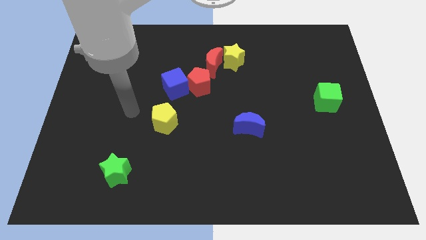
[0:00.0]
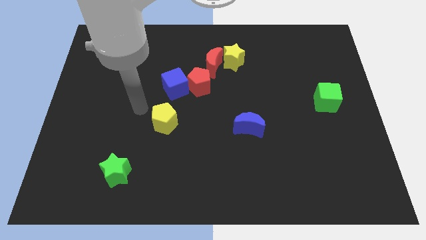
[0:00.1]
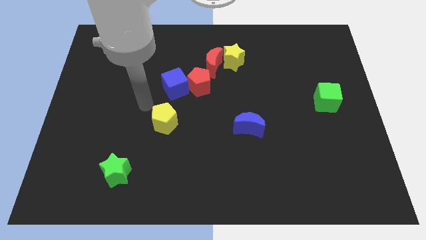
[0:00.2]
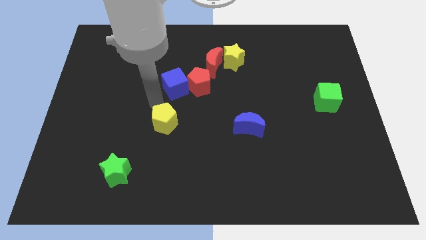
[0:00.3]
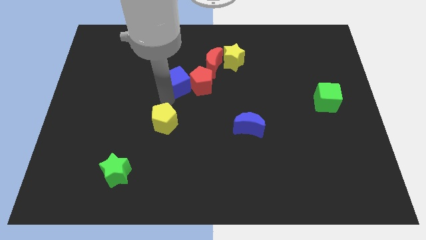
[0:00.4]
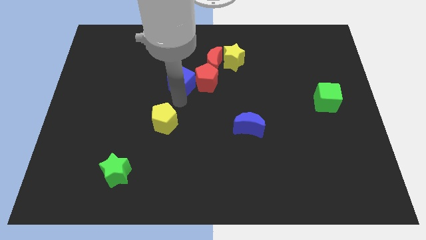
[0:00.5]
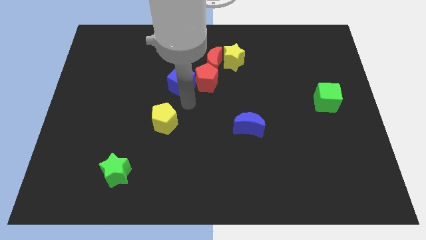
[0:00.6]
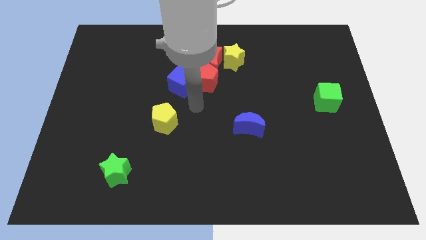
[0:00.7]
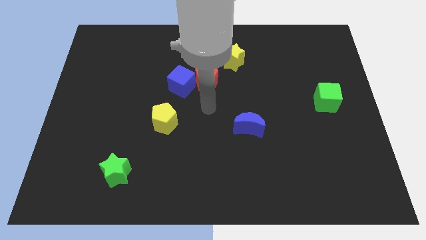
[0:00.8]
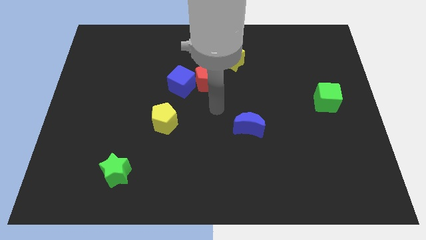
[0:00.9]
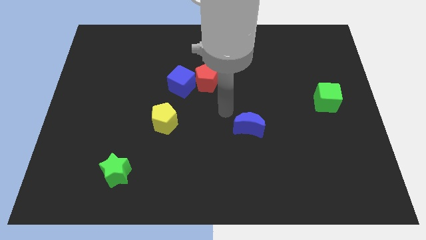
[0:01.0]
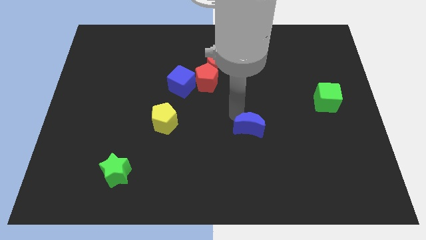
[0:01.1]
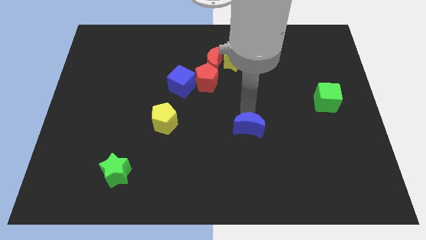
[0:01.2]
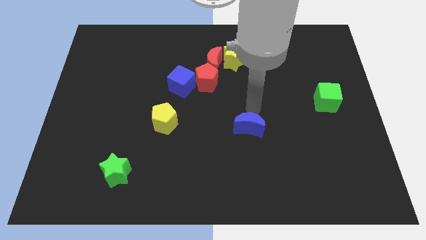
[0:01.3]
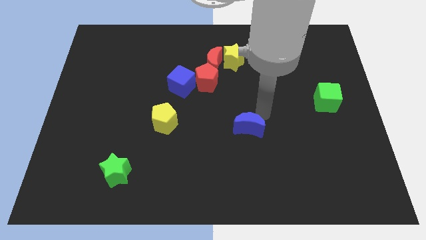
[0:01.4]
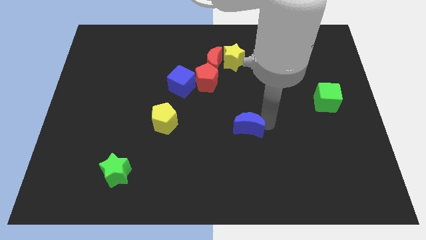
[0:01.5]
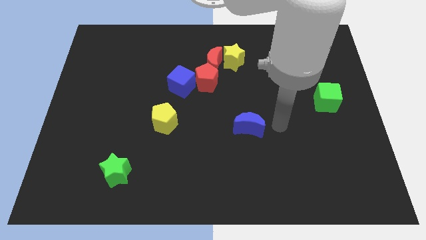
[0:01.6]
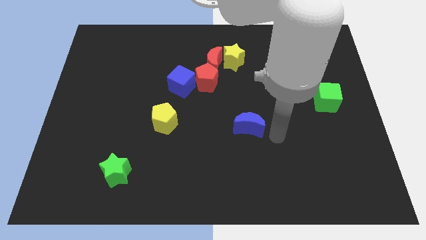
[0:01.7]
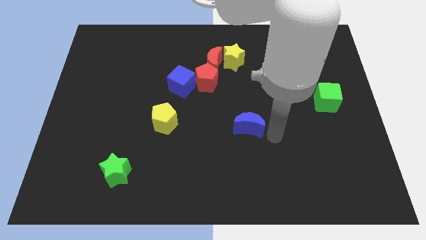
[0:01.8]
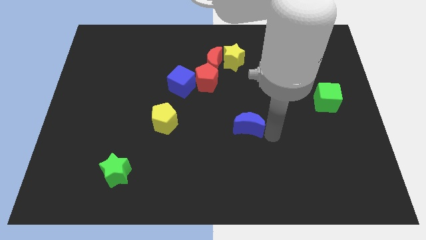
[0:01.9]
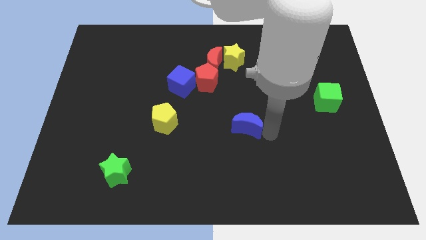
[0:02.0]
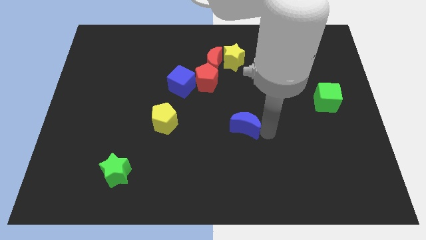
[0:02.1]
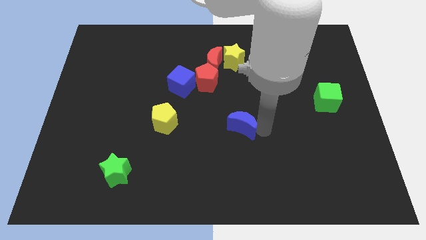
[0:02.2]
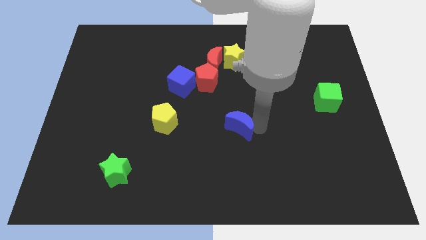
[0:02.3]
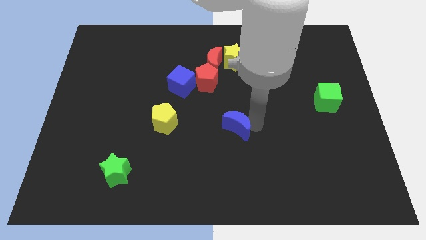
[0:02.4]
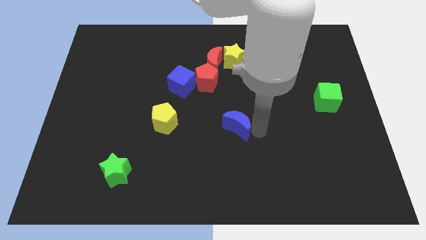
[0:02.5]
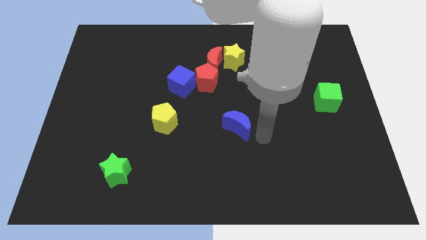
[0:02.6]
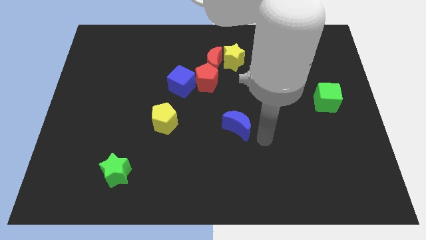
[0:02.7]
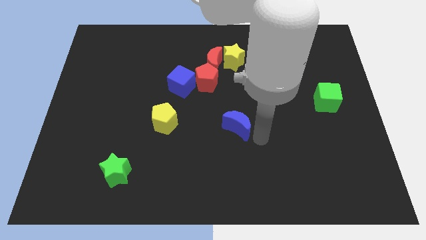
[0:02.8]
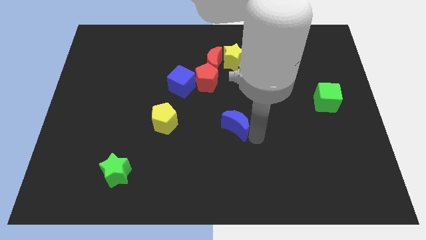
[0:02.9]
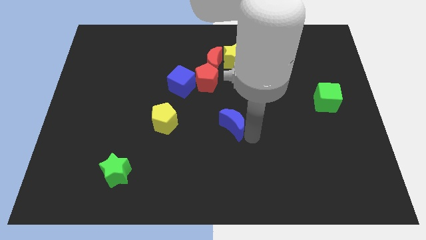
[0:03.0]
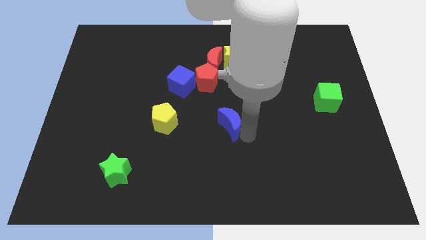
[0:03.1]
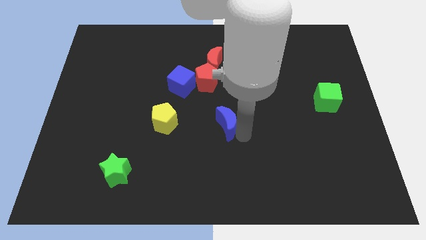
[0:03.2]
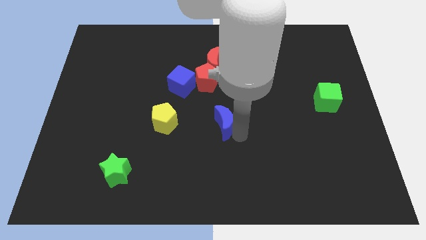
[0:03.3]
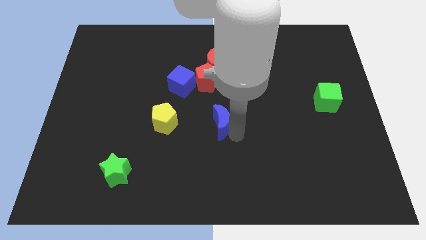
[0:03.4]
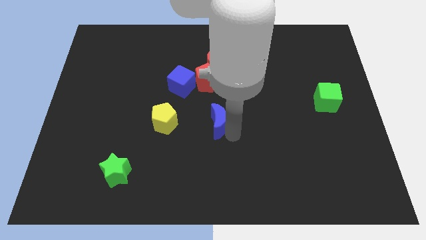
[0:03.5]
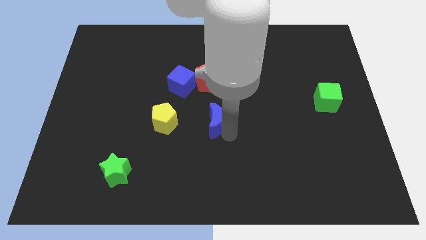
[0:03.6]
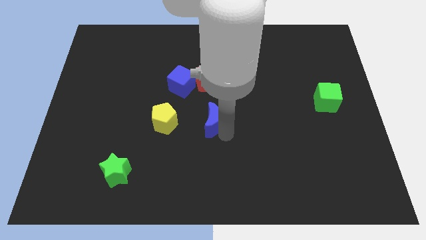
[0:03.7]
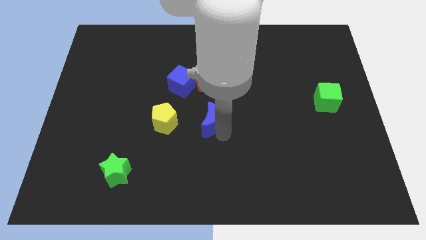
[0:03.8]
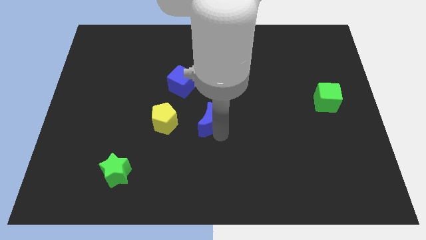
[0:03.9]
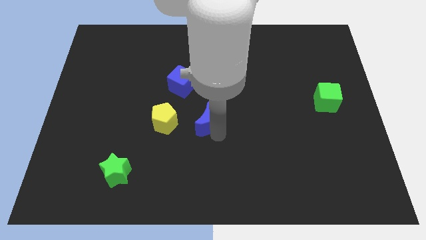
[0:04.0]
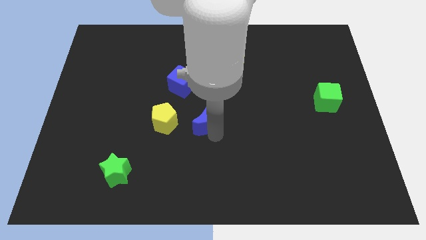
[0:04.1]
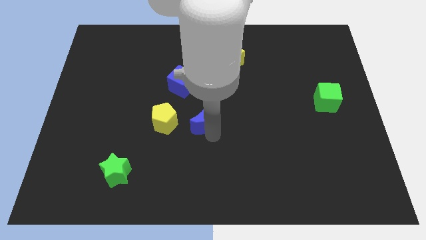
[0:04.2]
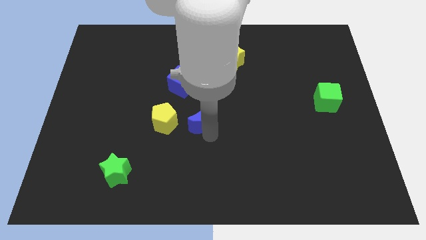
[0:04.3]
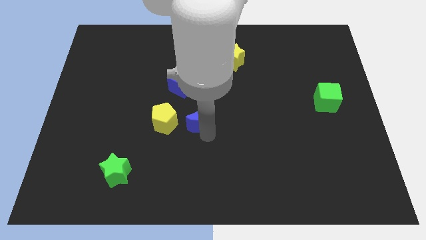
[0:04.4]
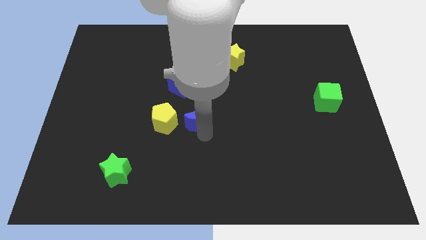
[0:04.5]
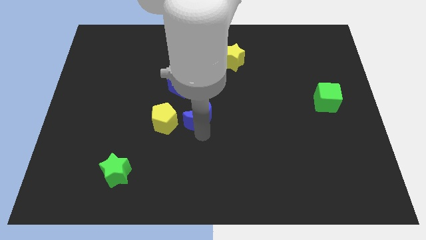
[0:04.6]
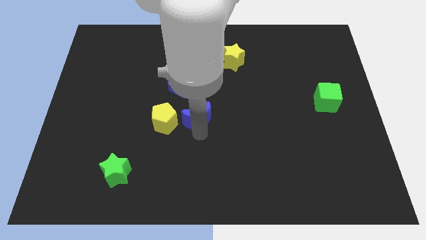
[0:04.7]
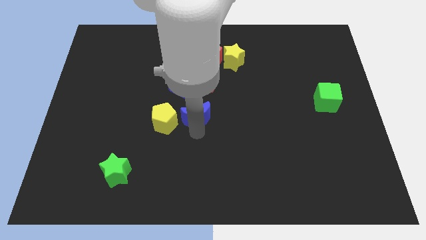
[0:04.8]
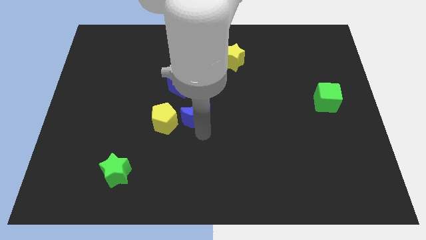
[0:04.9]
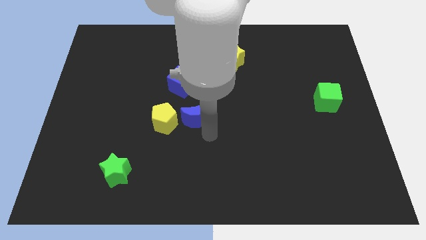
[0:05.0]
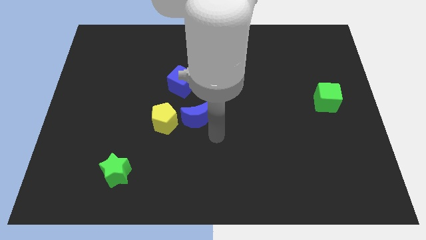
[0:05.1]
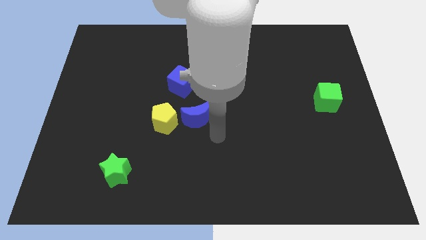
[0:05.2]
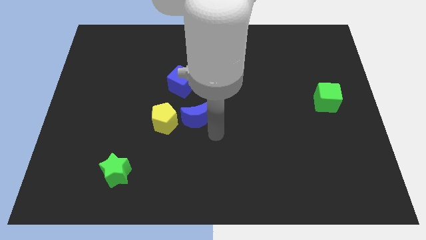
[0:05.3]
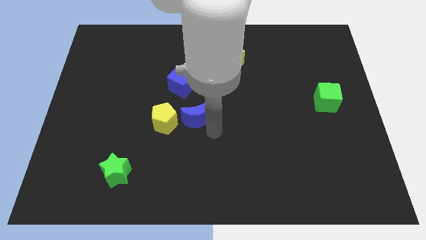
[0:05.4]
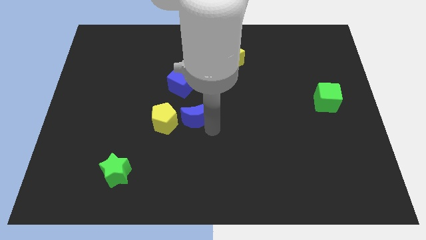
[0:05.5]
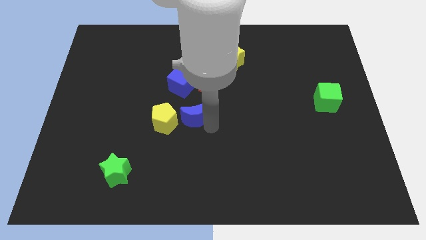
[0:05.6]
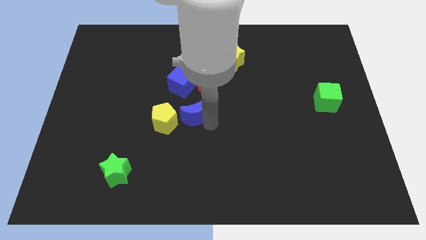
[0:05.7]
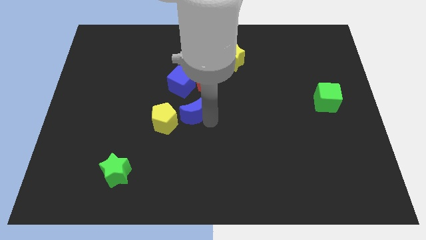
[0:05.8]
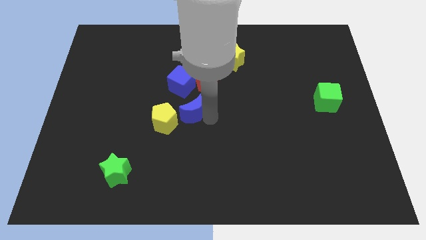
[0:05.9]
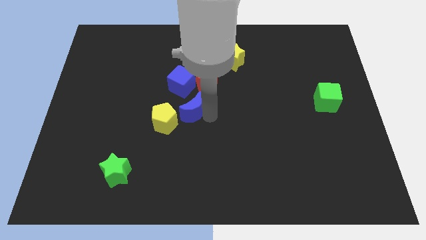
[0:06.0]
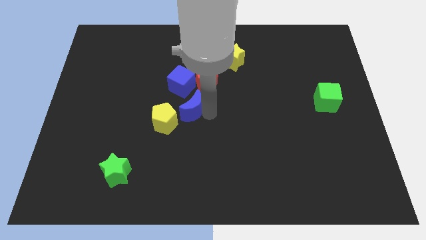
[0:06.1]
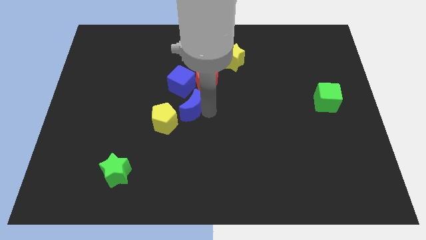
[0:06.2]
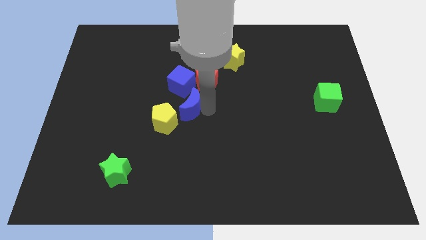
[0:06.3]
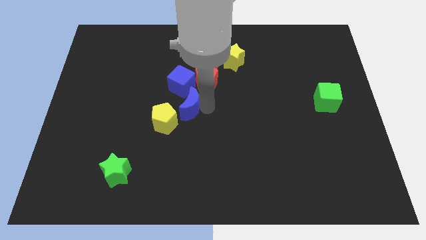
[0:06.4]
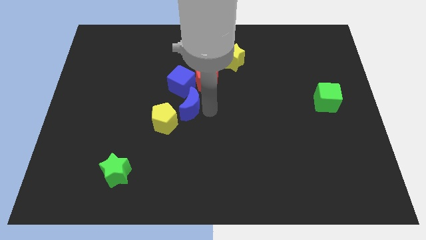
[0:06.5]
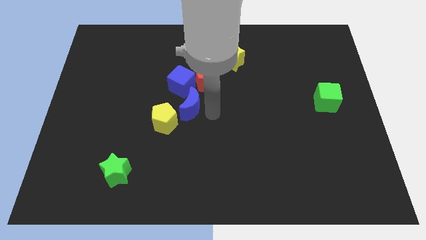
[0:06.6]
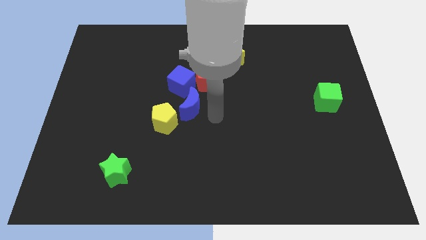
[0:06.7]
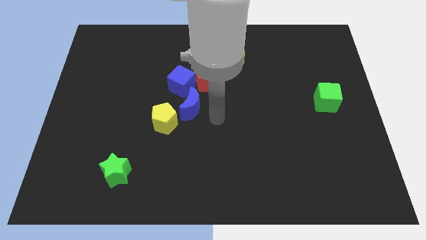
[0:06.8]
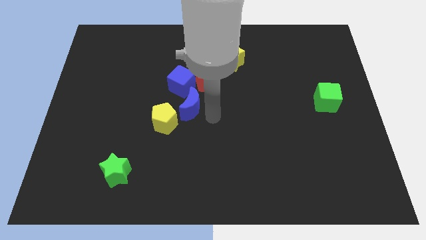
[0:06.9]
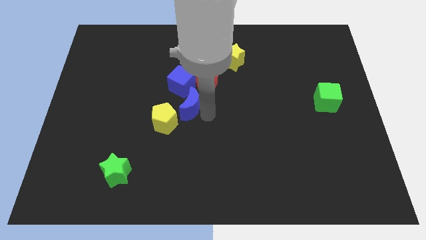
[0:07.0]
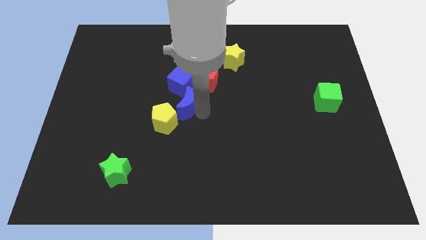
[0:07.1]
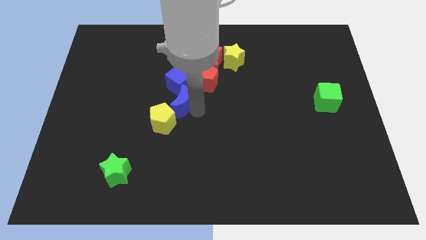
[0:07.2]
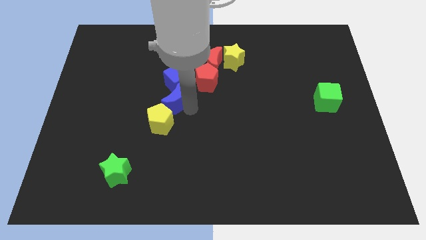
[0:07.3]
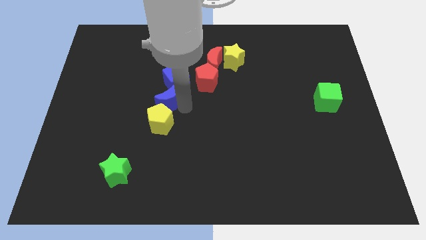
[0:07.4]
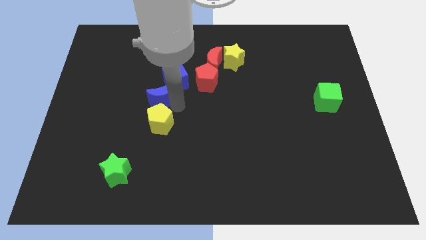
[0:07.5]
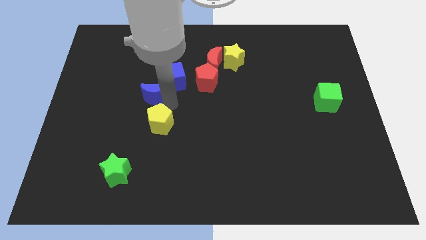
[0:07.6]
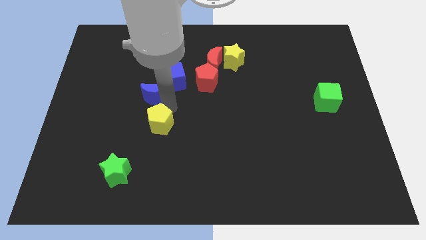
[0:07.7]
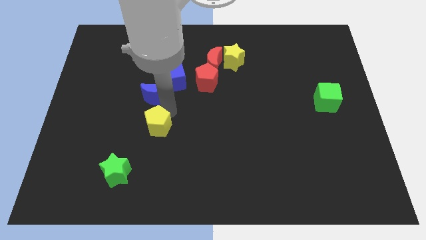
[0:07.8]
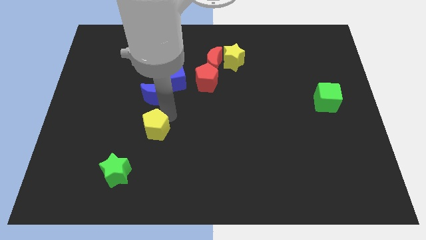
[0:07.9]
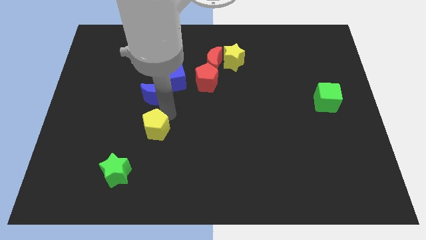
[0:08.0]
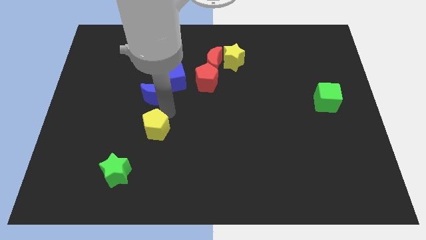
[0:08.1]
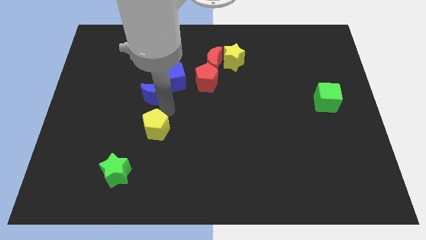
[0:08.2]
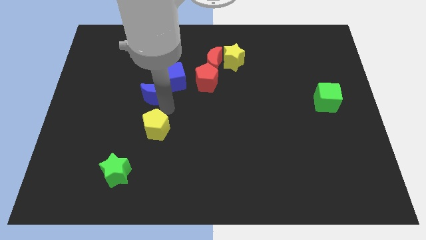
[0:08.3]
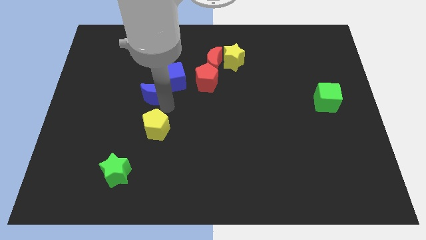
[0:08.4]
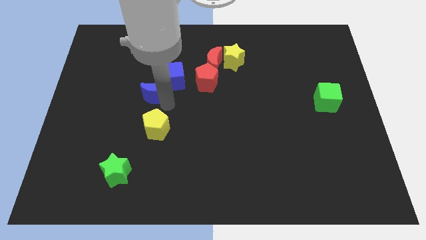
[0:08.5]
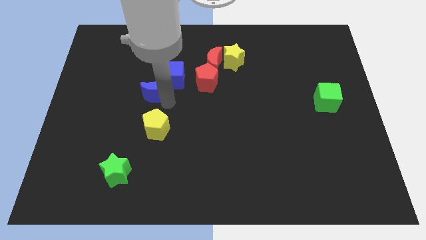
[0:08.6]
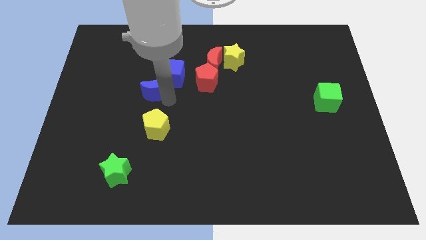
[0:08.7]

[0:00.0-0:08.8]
slide the blue moon up and then left
